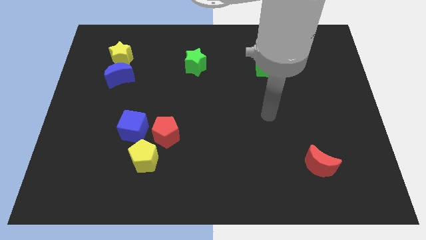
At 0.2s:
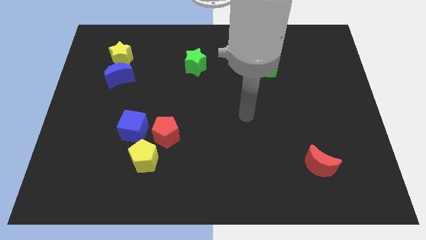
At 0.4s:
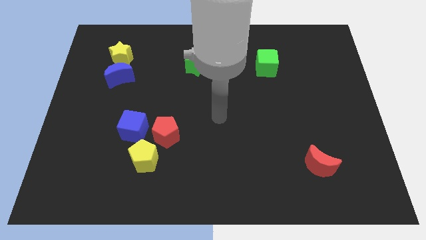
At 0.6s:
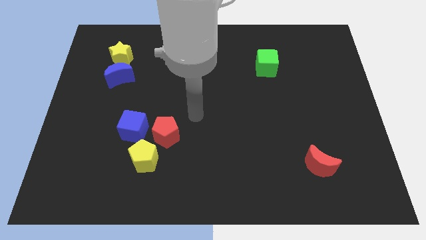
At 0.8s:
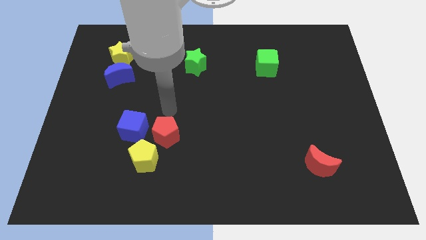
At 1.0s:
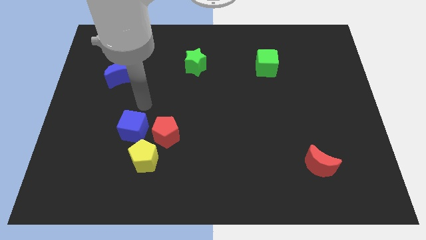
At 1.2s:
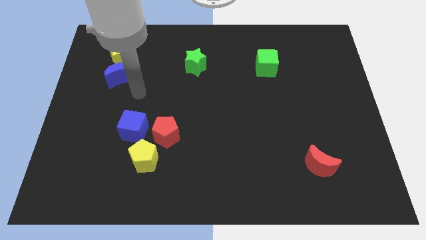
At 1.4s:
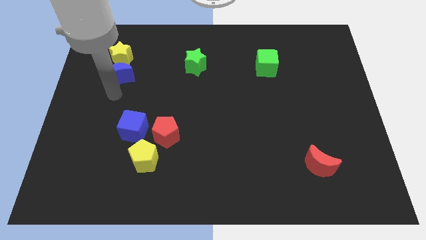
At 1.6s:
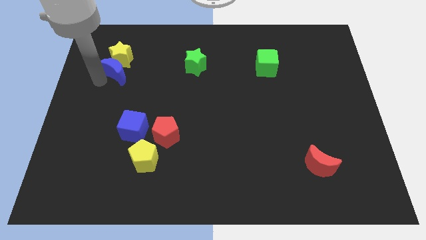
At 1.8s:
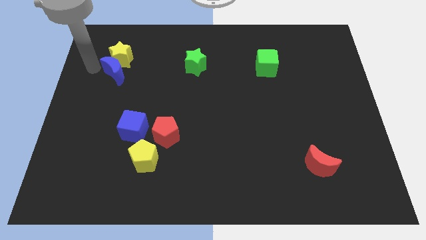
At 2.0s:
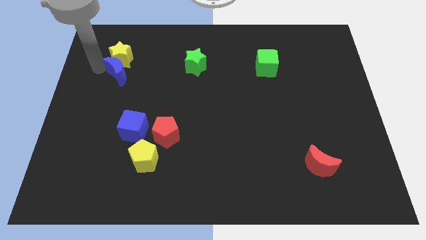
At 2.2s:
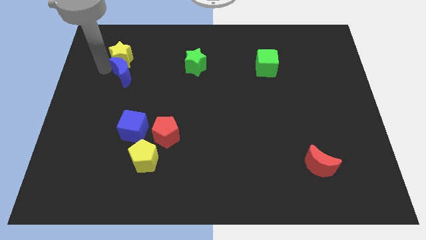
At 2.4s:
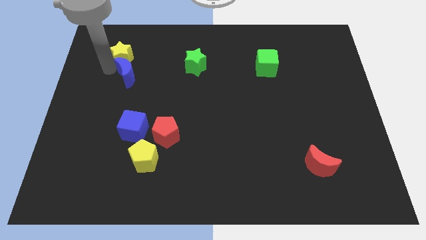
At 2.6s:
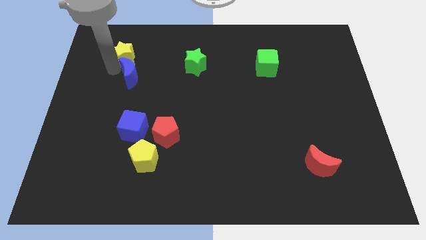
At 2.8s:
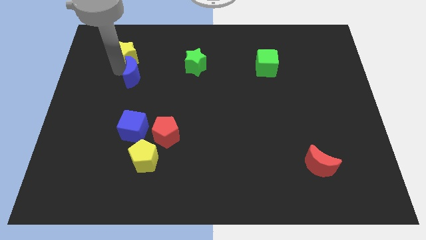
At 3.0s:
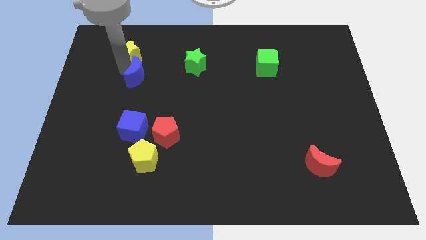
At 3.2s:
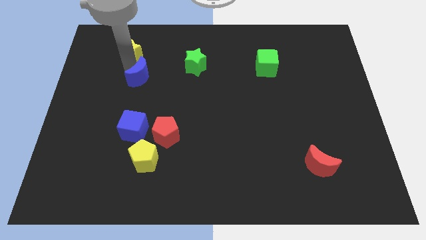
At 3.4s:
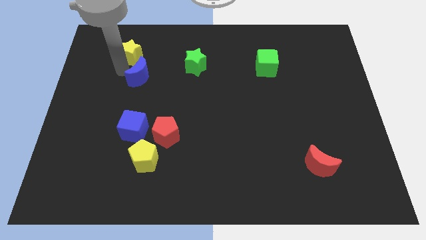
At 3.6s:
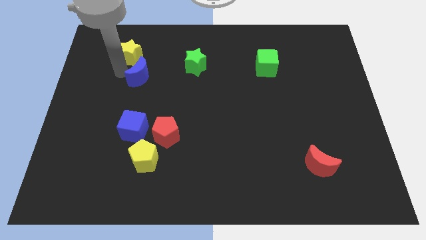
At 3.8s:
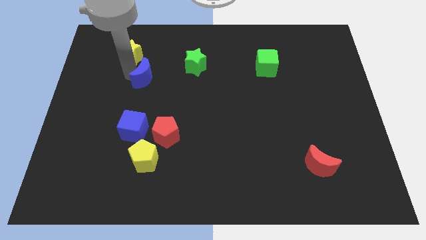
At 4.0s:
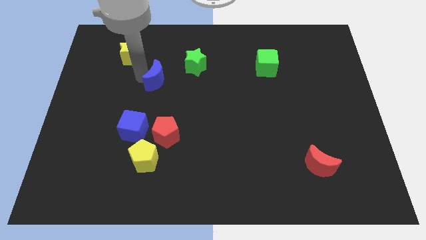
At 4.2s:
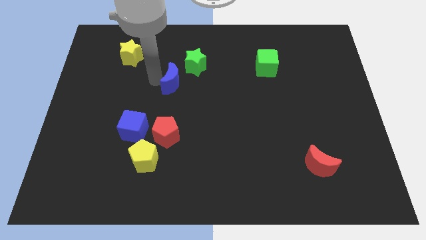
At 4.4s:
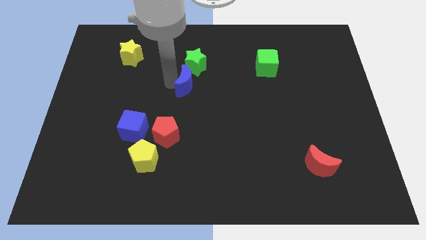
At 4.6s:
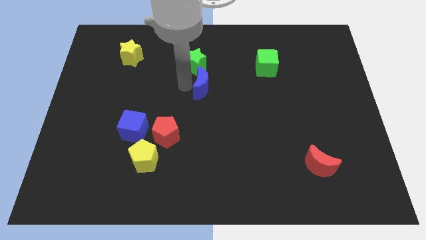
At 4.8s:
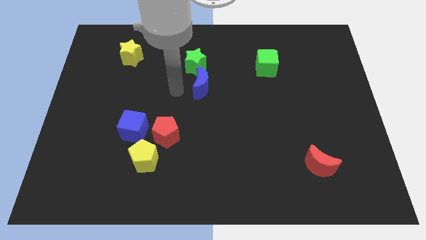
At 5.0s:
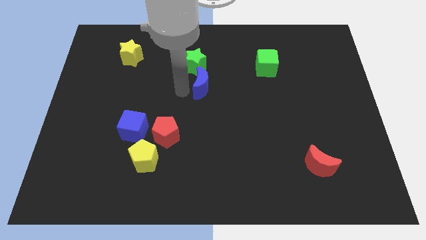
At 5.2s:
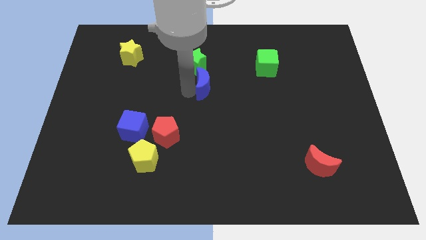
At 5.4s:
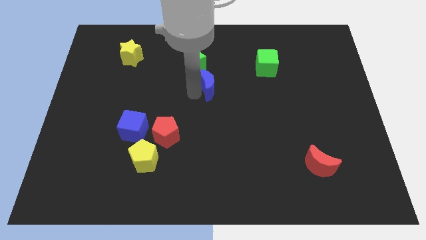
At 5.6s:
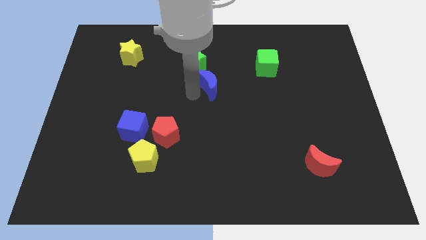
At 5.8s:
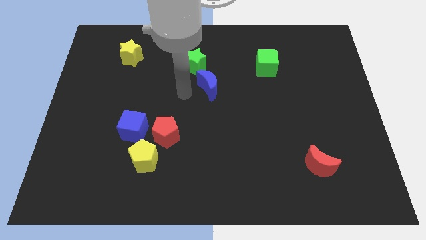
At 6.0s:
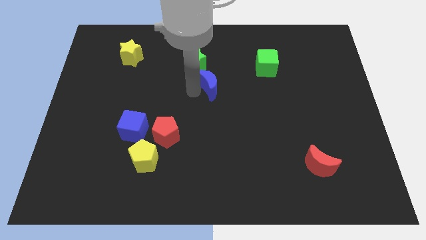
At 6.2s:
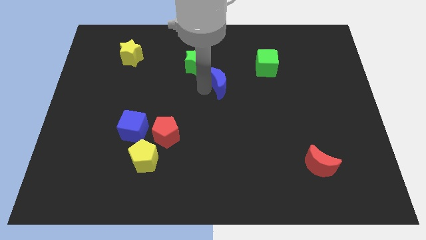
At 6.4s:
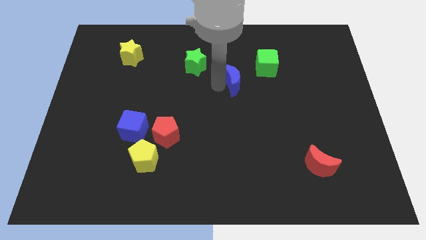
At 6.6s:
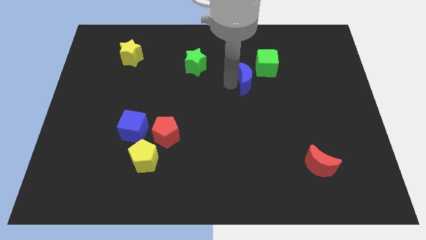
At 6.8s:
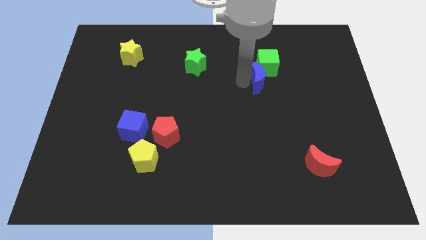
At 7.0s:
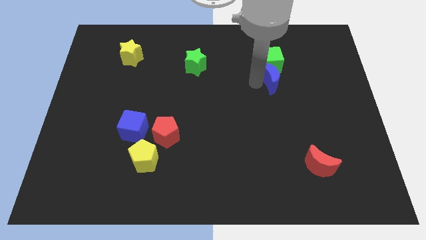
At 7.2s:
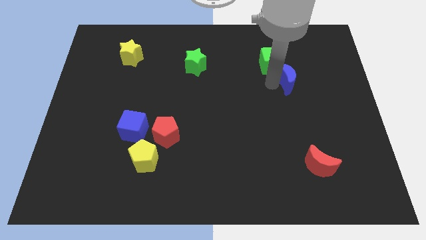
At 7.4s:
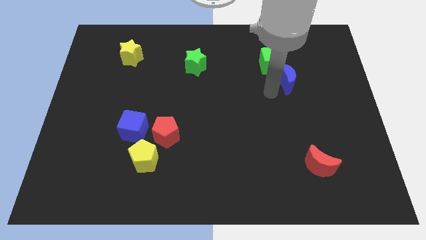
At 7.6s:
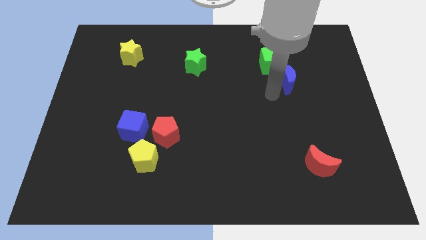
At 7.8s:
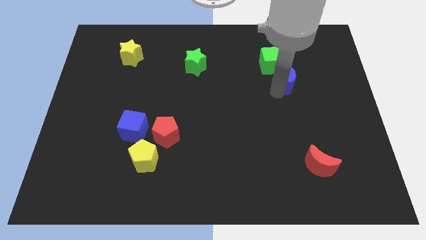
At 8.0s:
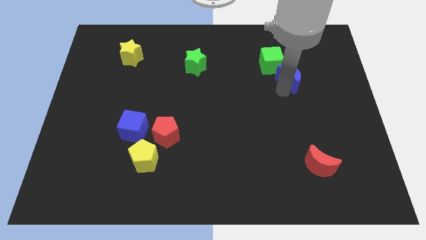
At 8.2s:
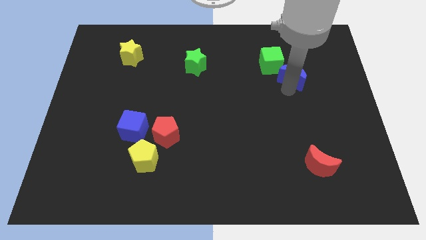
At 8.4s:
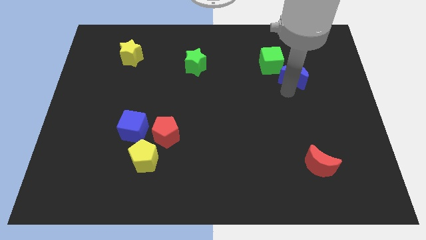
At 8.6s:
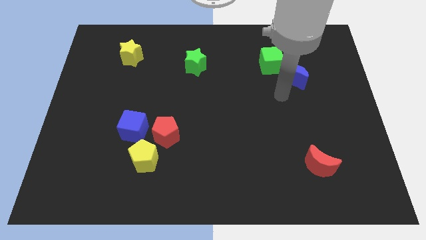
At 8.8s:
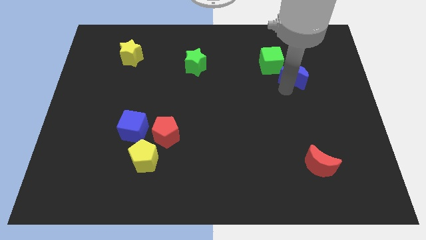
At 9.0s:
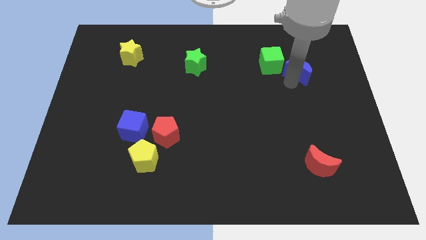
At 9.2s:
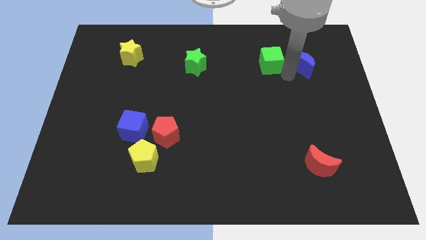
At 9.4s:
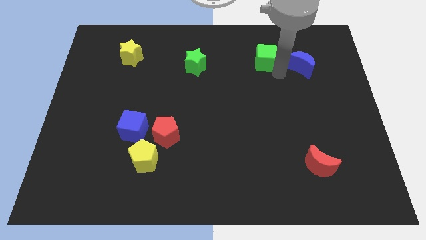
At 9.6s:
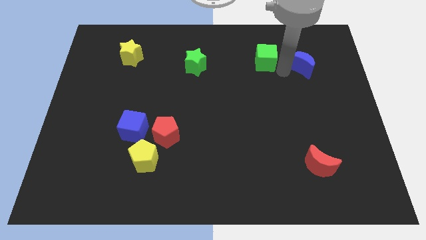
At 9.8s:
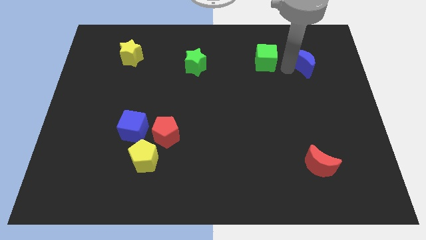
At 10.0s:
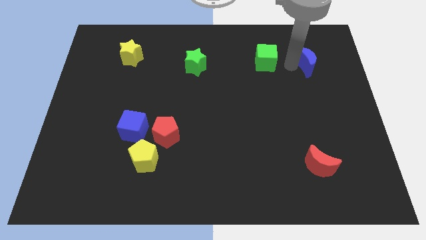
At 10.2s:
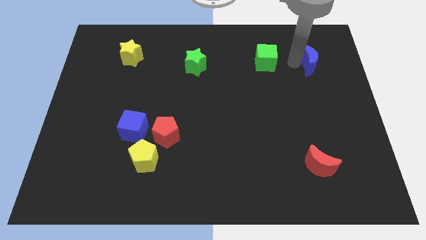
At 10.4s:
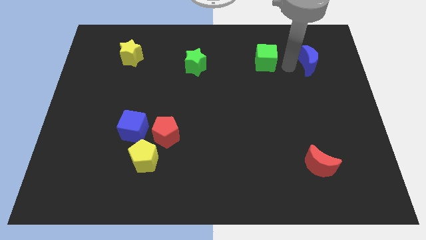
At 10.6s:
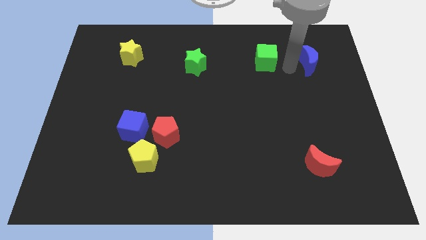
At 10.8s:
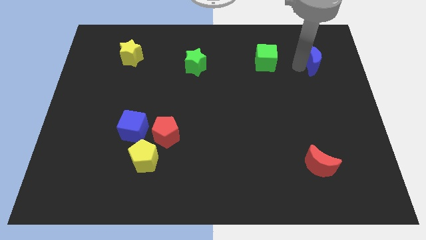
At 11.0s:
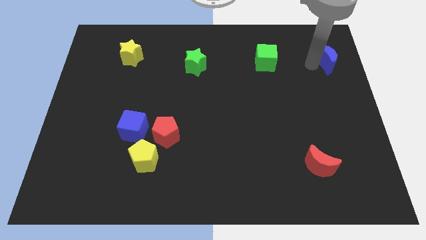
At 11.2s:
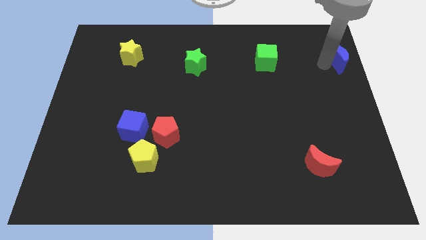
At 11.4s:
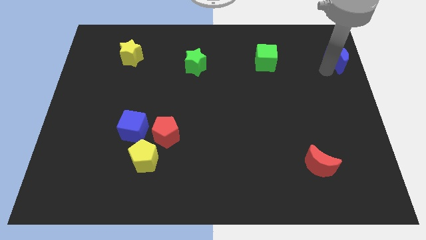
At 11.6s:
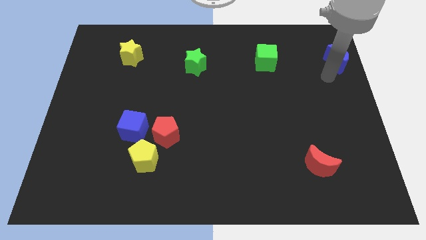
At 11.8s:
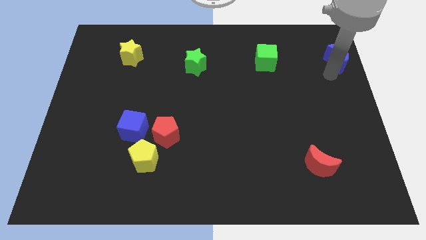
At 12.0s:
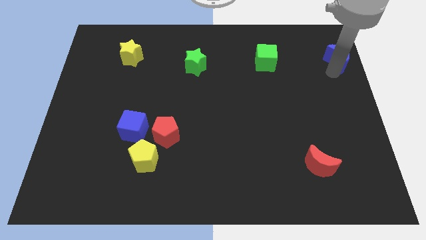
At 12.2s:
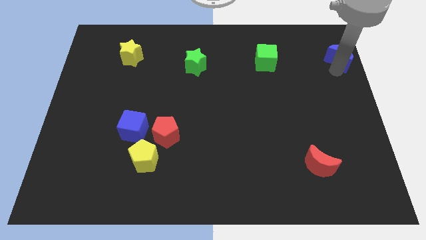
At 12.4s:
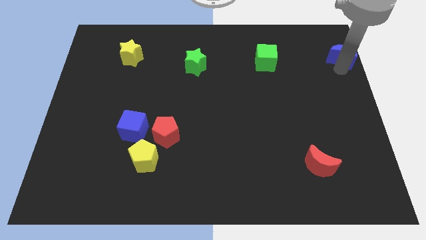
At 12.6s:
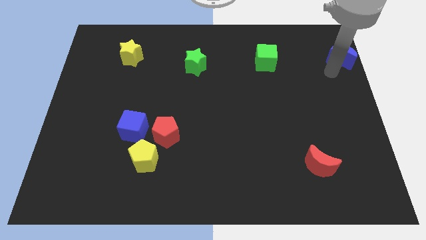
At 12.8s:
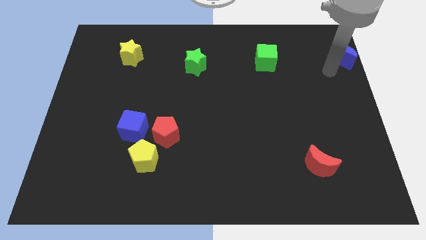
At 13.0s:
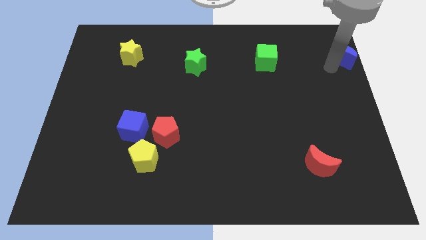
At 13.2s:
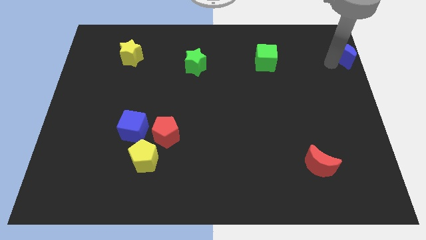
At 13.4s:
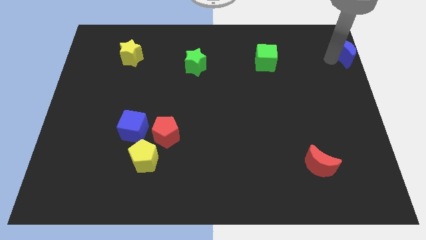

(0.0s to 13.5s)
put the blue moon to the upper right corner
